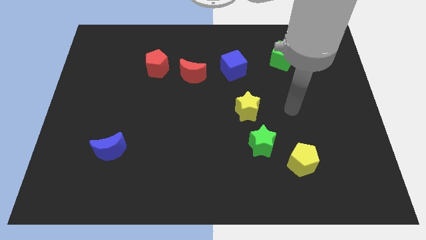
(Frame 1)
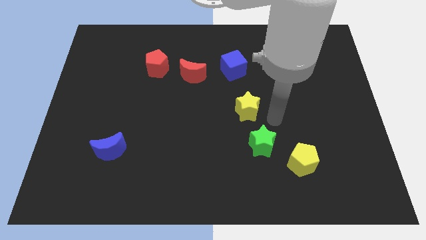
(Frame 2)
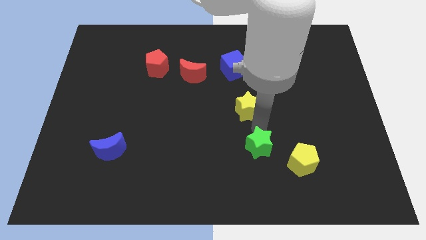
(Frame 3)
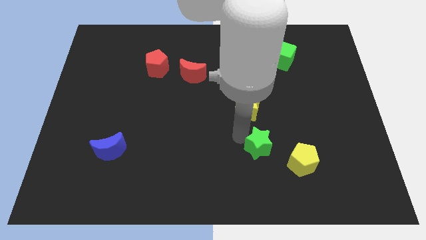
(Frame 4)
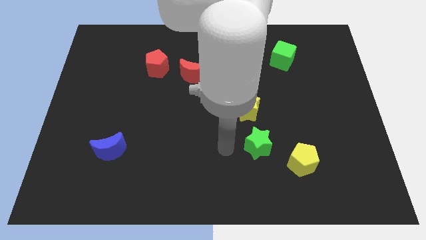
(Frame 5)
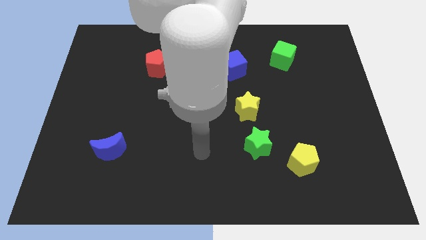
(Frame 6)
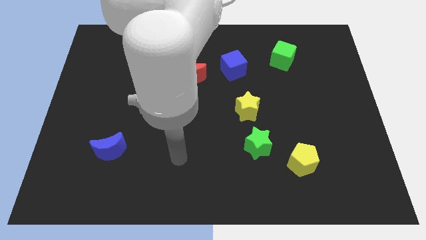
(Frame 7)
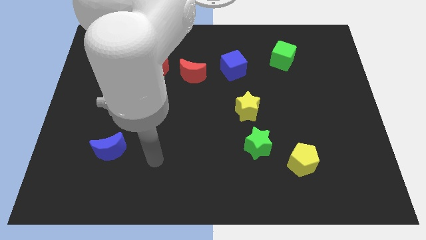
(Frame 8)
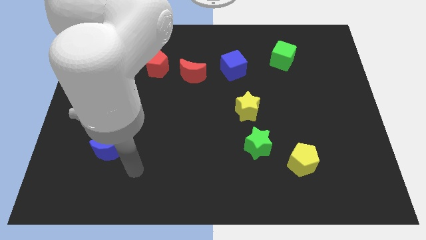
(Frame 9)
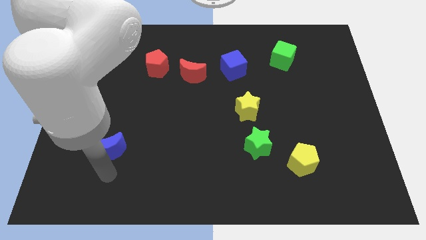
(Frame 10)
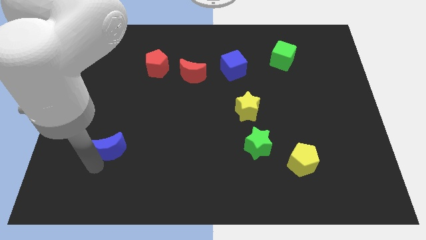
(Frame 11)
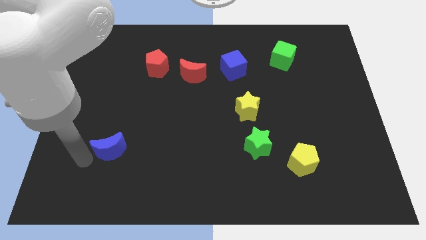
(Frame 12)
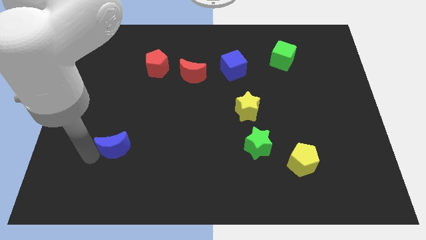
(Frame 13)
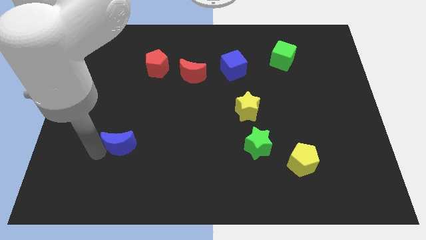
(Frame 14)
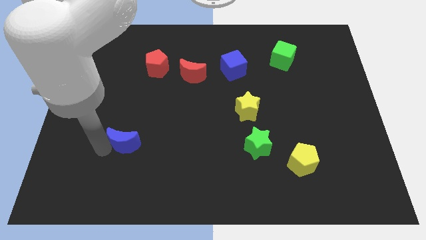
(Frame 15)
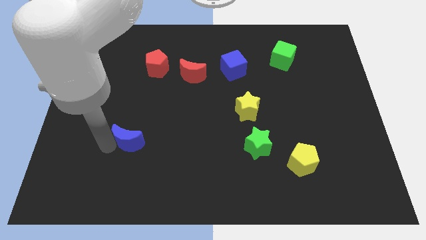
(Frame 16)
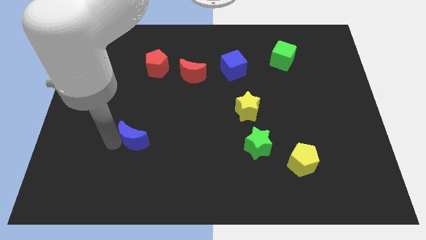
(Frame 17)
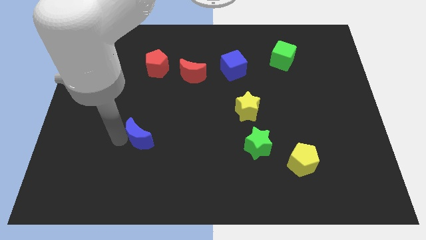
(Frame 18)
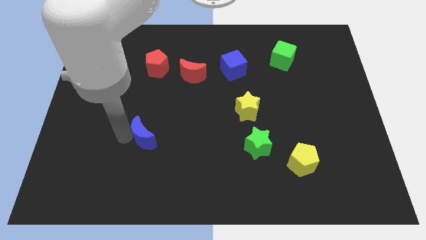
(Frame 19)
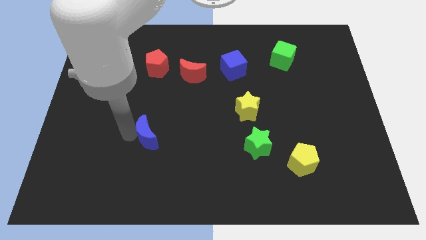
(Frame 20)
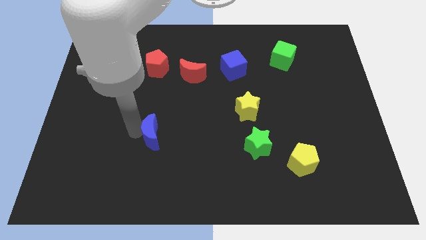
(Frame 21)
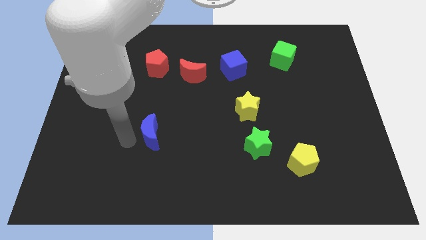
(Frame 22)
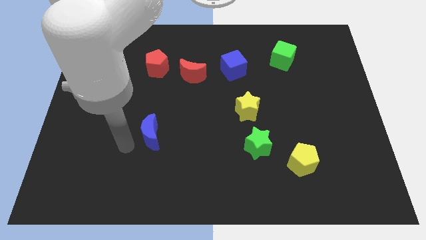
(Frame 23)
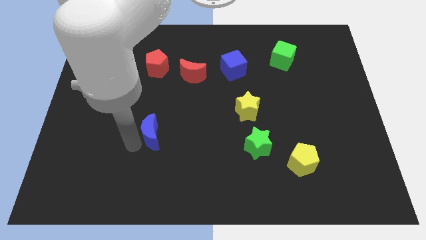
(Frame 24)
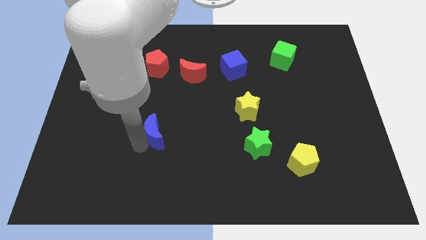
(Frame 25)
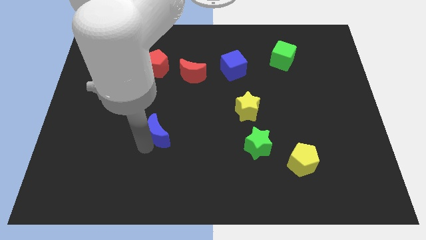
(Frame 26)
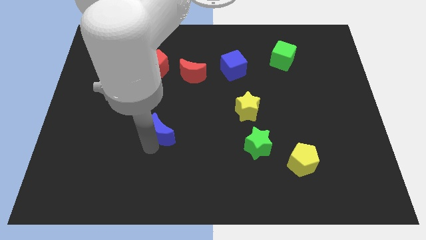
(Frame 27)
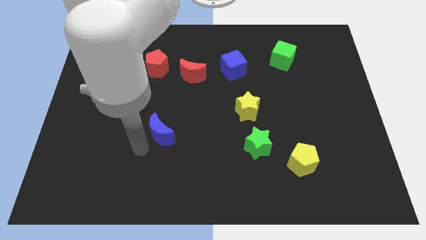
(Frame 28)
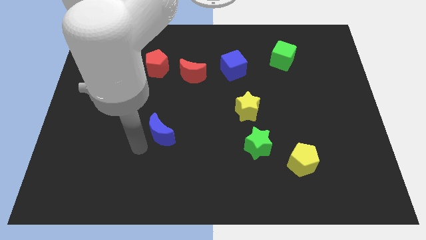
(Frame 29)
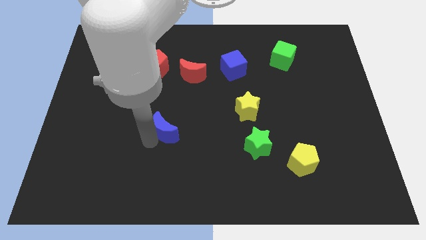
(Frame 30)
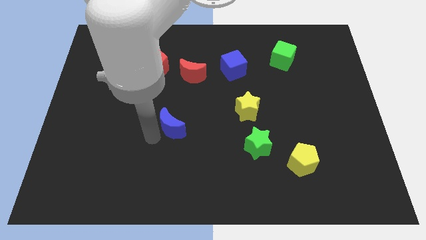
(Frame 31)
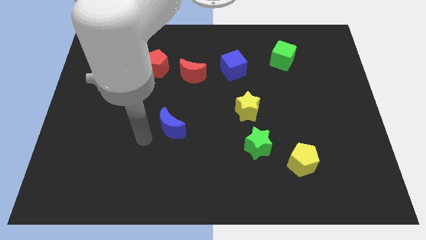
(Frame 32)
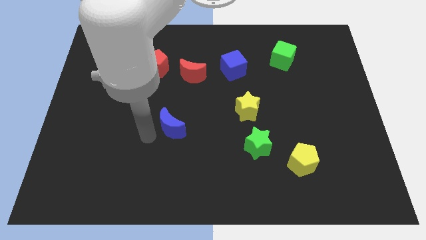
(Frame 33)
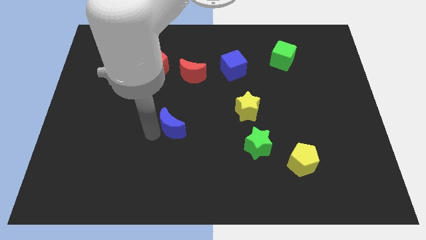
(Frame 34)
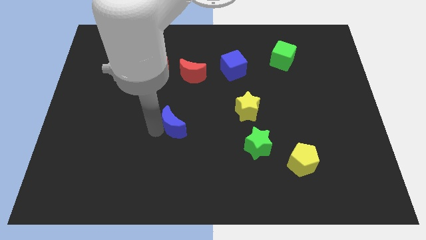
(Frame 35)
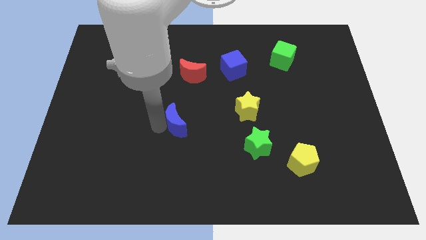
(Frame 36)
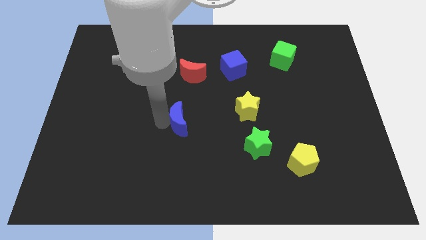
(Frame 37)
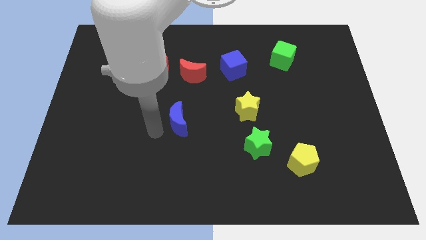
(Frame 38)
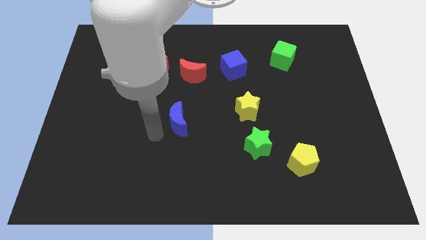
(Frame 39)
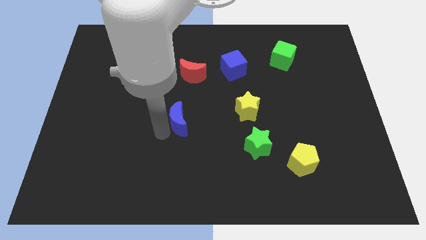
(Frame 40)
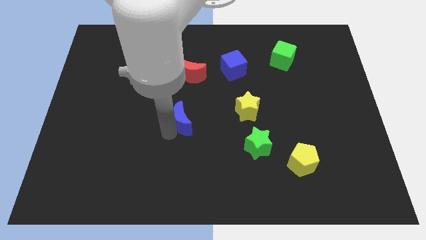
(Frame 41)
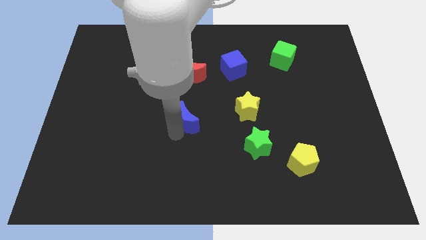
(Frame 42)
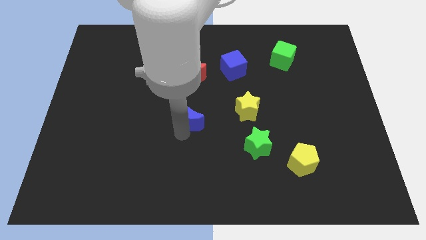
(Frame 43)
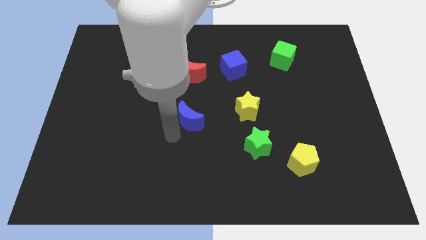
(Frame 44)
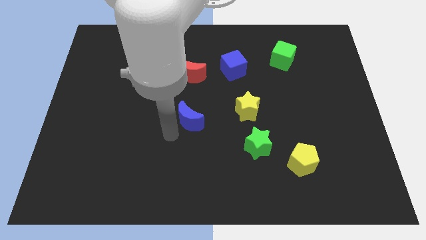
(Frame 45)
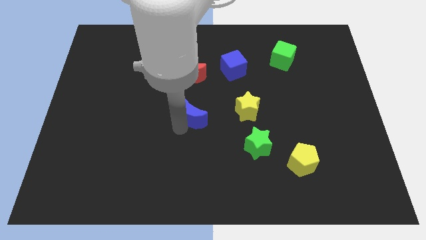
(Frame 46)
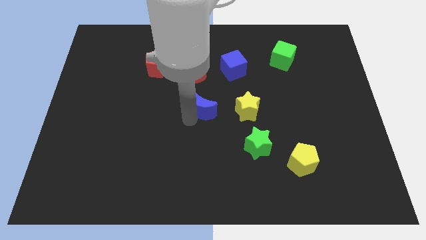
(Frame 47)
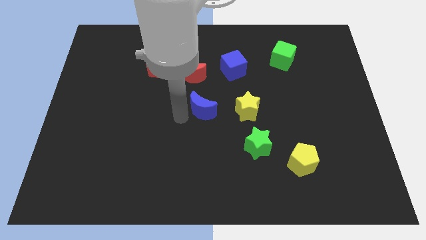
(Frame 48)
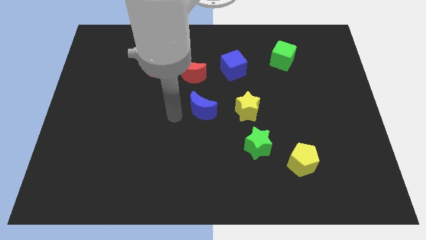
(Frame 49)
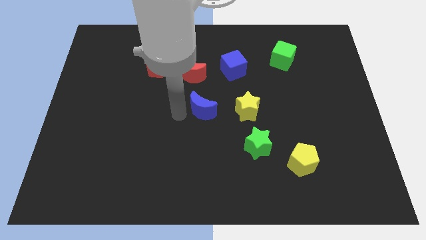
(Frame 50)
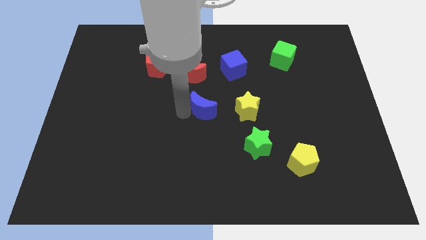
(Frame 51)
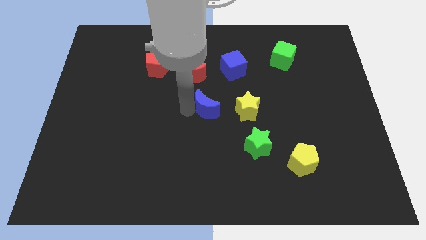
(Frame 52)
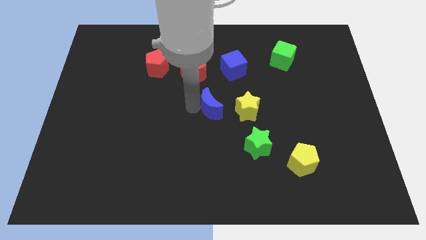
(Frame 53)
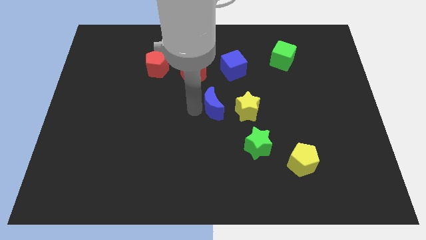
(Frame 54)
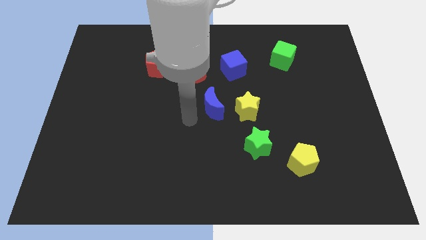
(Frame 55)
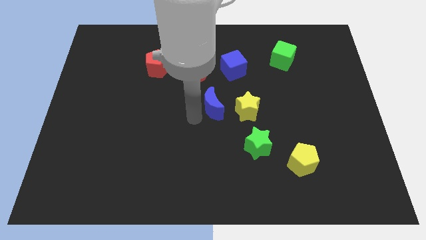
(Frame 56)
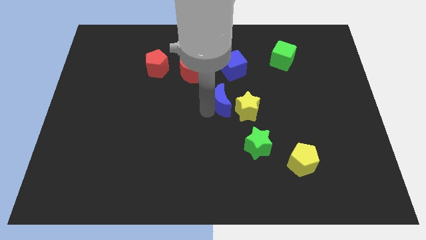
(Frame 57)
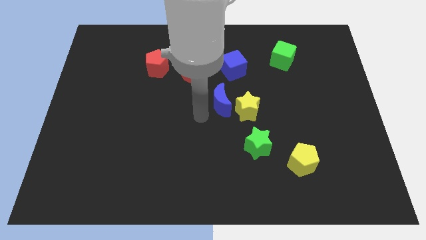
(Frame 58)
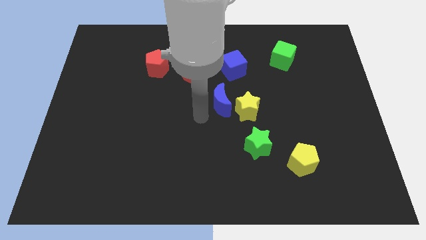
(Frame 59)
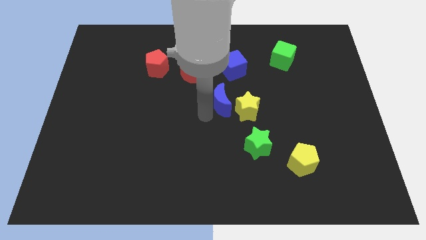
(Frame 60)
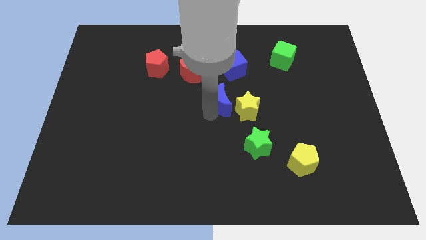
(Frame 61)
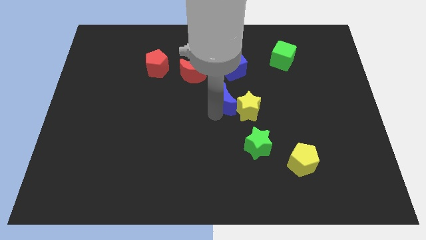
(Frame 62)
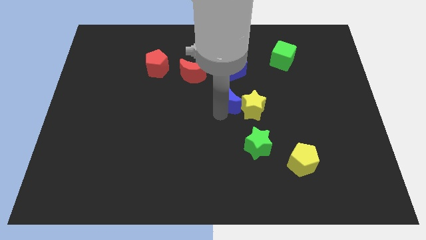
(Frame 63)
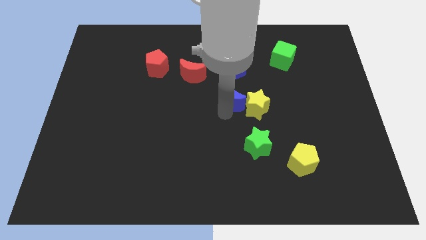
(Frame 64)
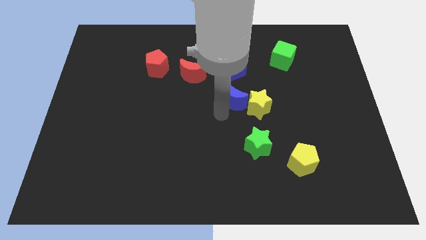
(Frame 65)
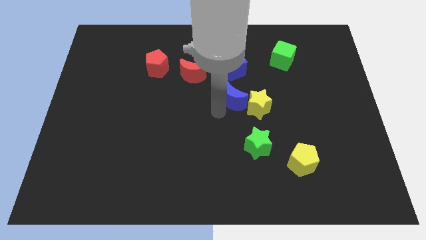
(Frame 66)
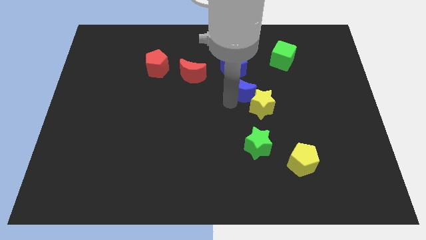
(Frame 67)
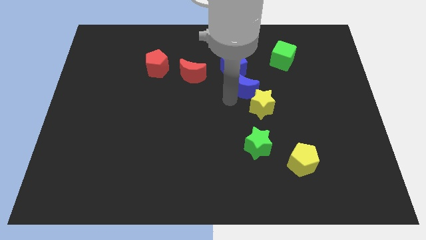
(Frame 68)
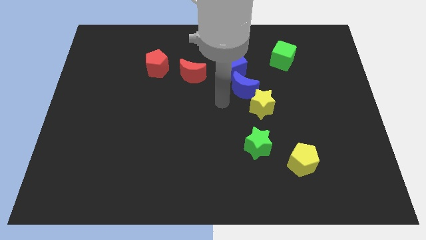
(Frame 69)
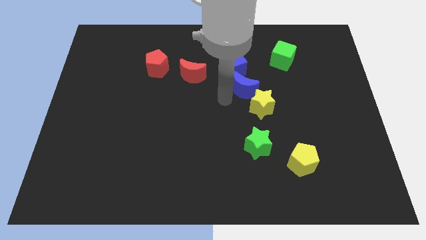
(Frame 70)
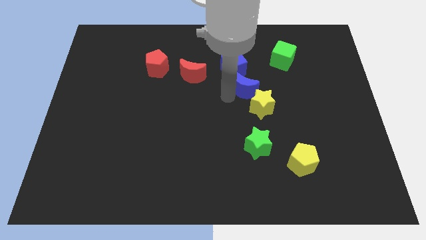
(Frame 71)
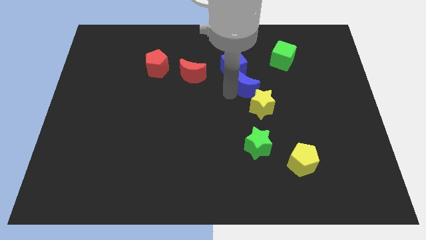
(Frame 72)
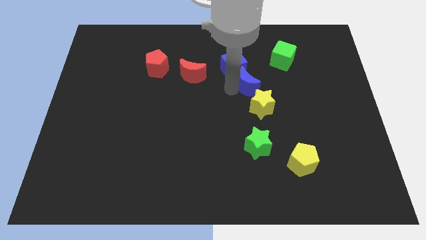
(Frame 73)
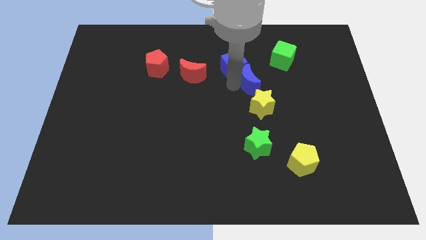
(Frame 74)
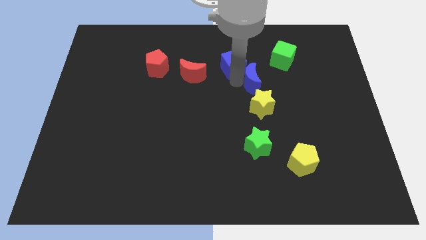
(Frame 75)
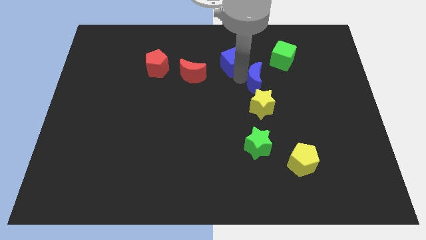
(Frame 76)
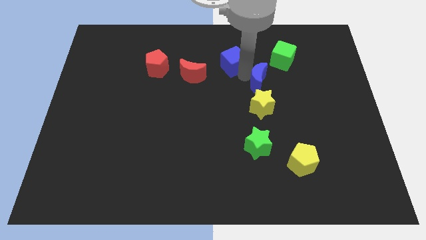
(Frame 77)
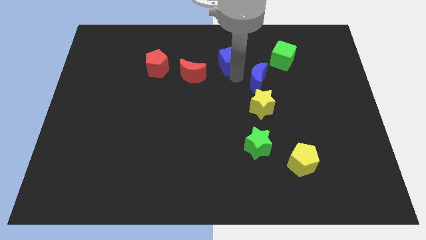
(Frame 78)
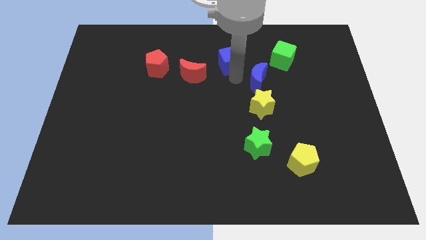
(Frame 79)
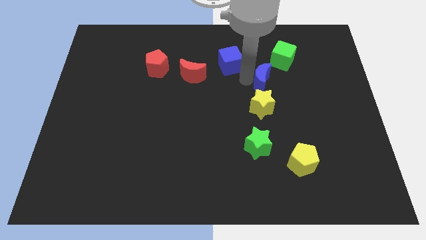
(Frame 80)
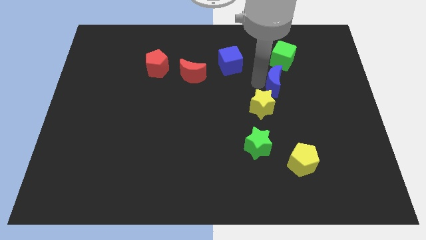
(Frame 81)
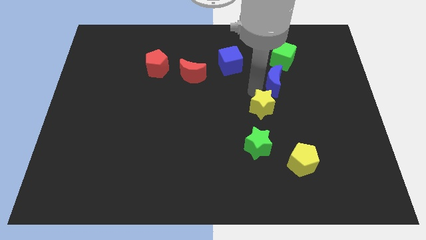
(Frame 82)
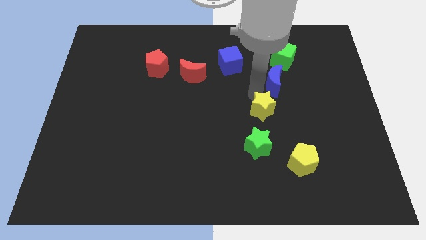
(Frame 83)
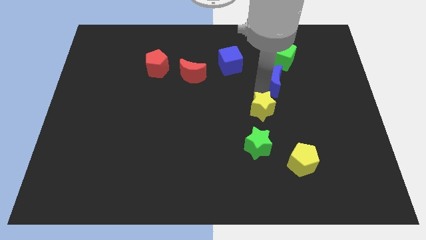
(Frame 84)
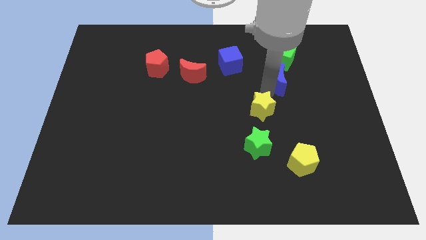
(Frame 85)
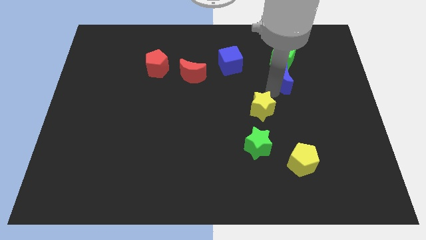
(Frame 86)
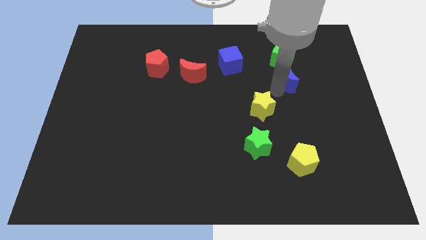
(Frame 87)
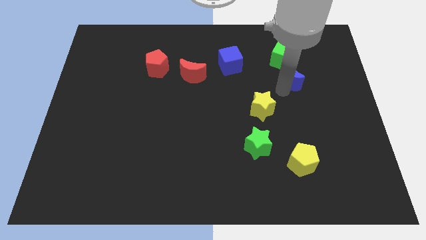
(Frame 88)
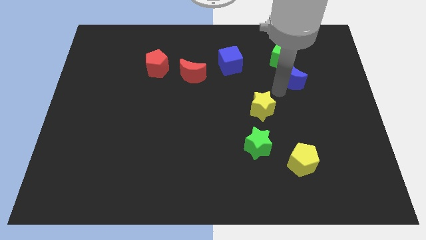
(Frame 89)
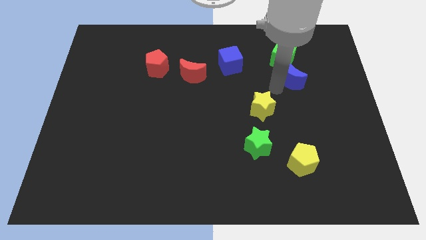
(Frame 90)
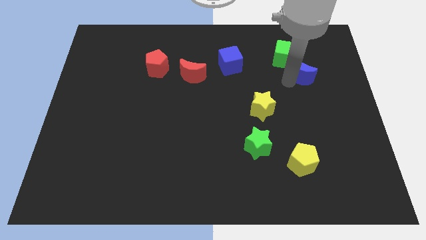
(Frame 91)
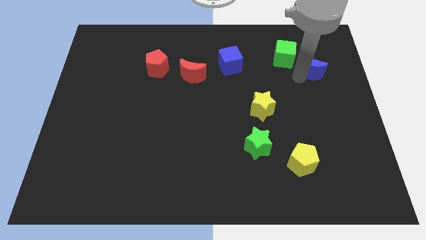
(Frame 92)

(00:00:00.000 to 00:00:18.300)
move the blue moon just right of the green cube
